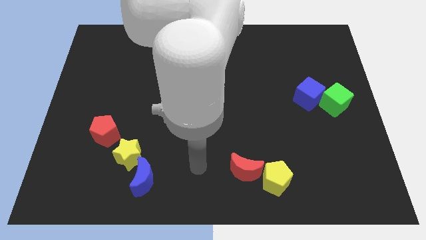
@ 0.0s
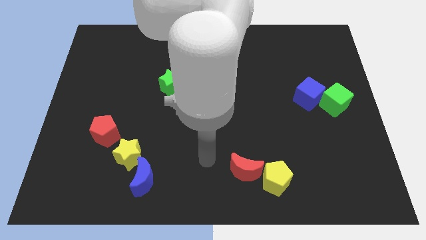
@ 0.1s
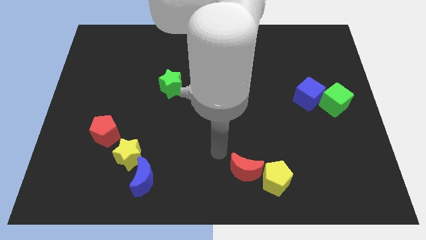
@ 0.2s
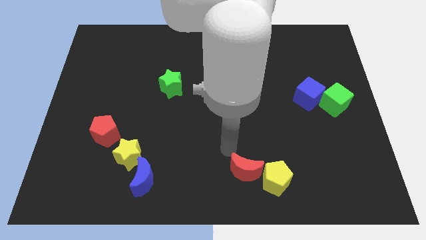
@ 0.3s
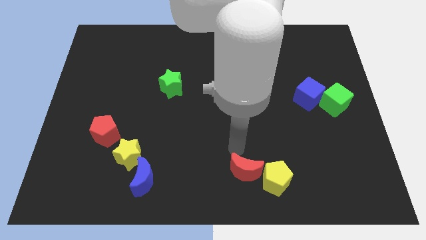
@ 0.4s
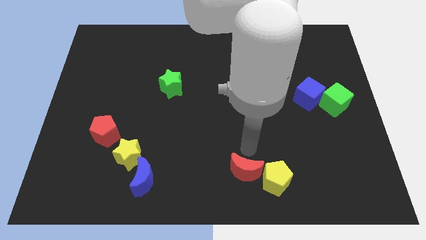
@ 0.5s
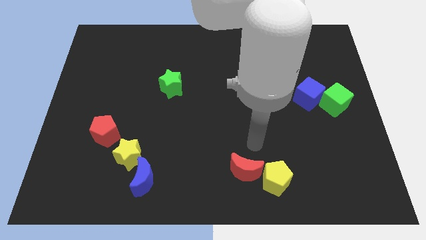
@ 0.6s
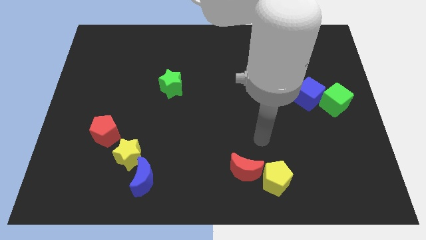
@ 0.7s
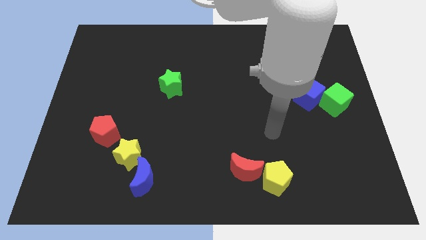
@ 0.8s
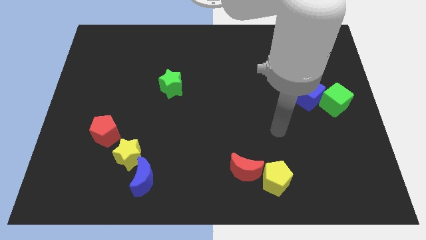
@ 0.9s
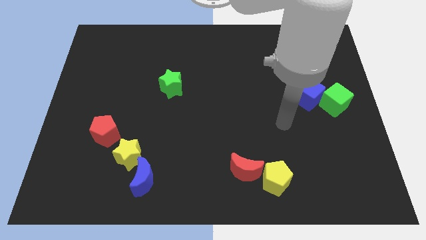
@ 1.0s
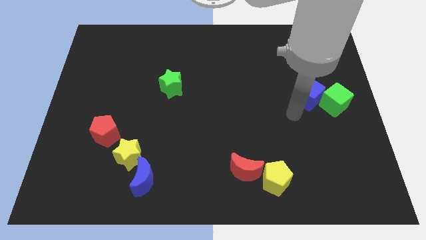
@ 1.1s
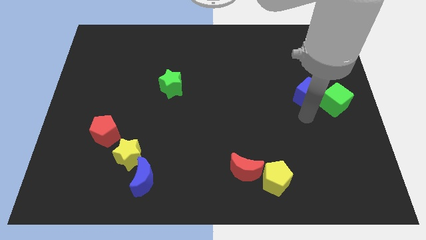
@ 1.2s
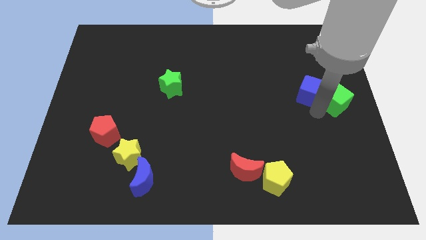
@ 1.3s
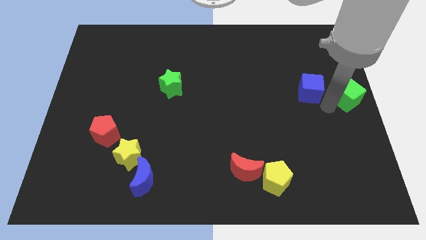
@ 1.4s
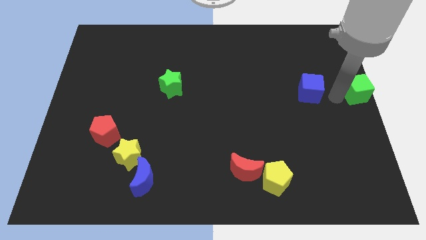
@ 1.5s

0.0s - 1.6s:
pull the blue cube apart from the green cube

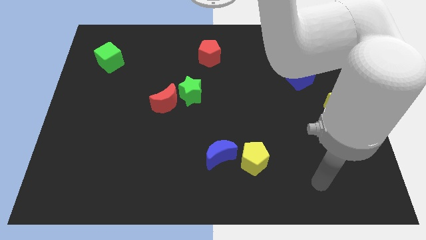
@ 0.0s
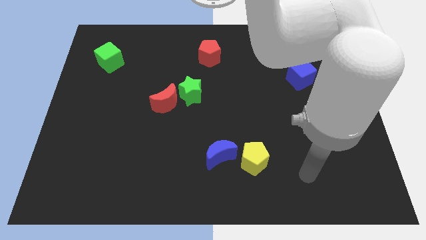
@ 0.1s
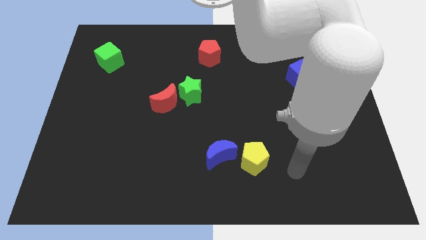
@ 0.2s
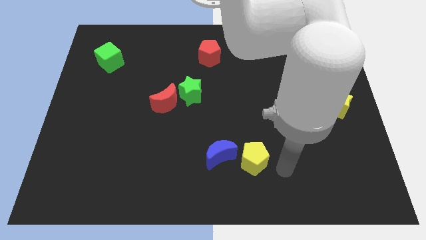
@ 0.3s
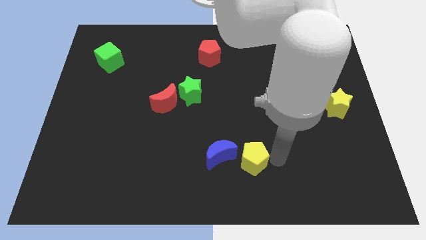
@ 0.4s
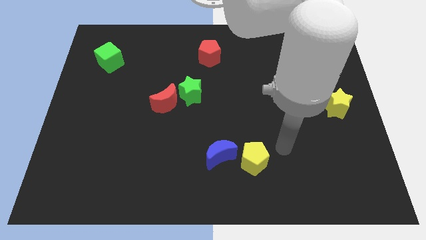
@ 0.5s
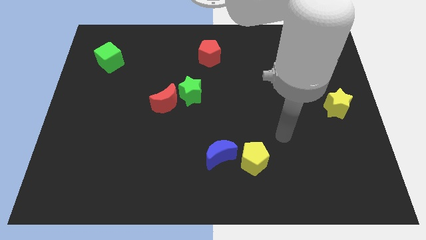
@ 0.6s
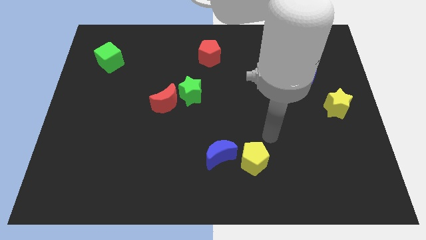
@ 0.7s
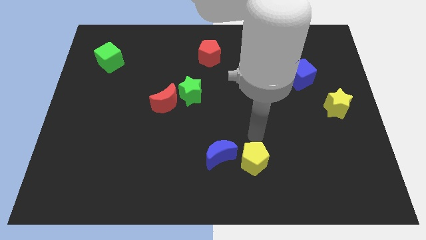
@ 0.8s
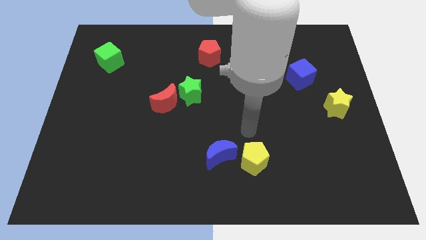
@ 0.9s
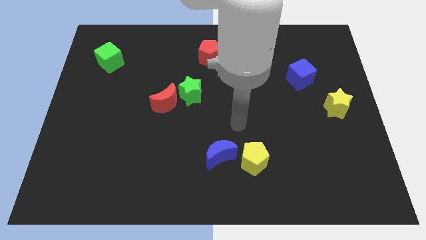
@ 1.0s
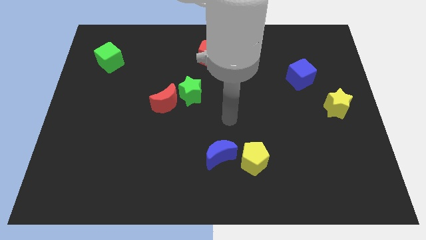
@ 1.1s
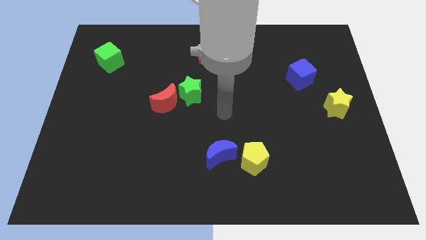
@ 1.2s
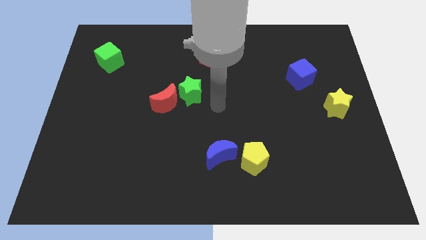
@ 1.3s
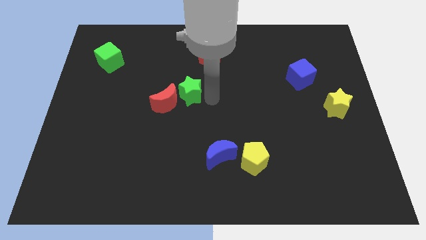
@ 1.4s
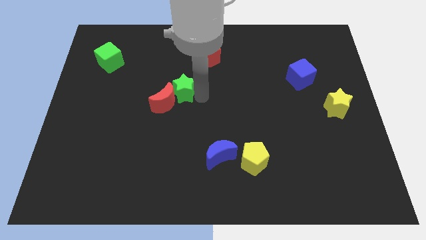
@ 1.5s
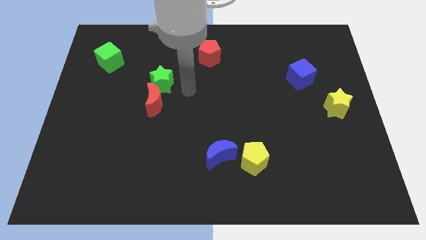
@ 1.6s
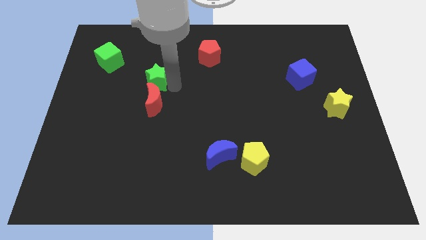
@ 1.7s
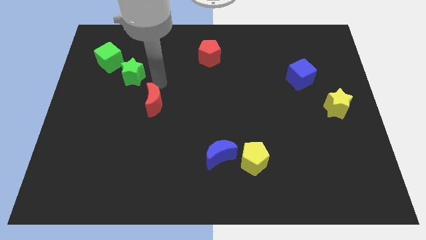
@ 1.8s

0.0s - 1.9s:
separate the red moon from the green star

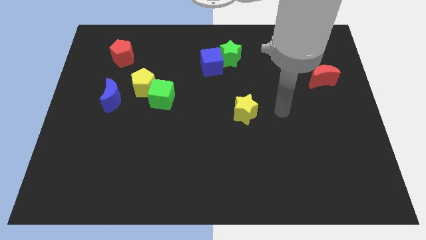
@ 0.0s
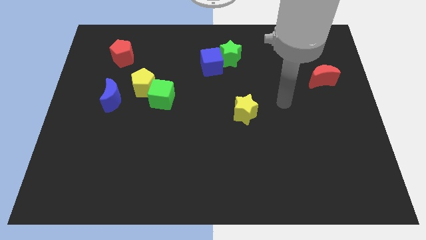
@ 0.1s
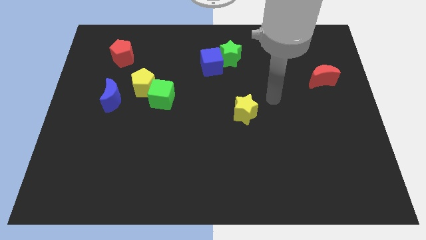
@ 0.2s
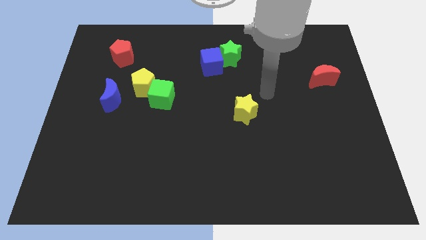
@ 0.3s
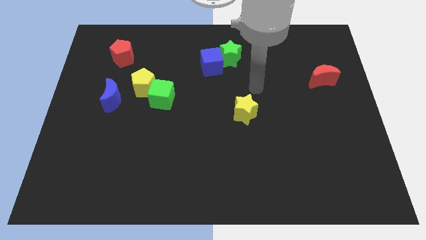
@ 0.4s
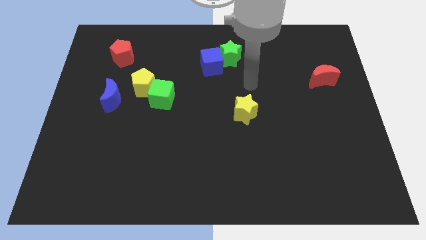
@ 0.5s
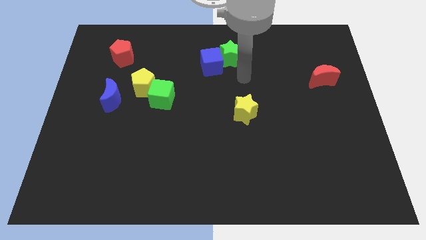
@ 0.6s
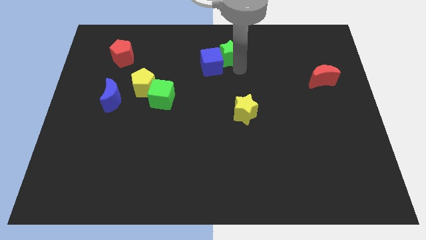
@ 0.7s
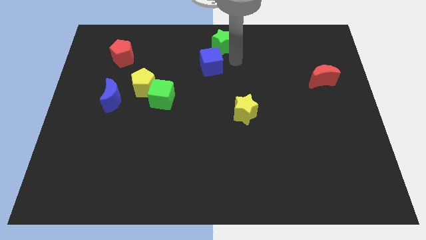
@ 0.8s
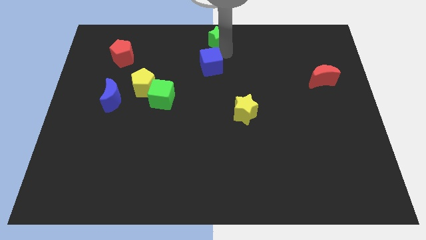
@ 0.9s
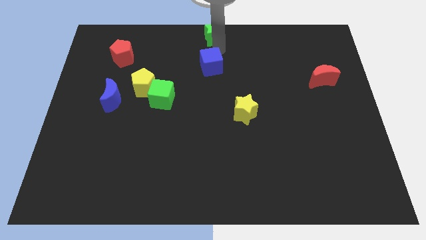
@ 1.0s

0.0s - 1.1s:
separate the blue cube from the green star

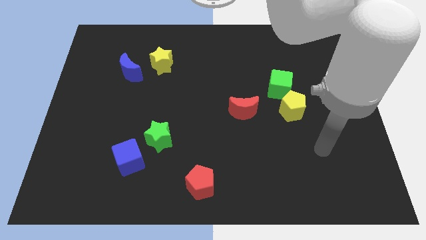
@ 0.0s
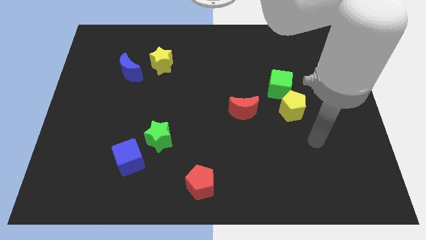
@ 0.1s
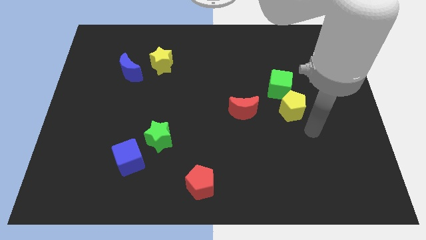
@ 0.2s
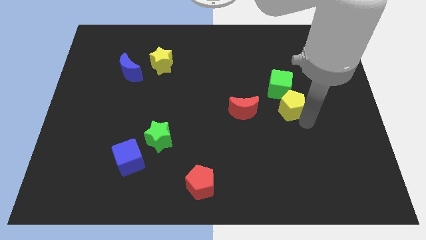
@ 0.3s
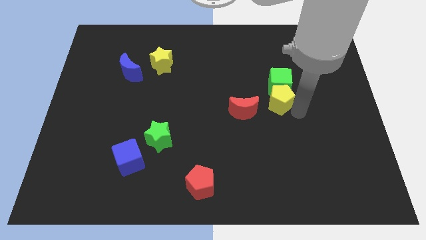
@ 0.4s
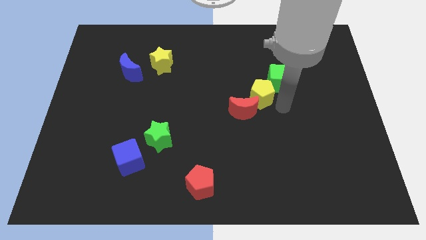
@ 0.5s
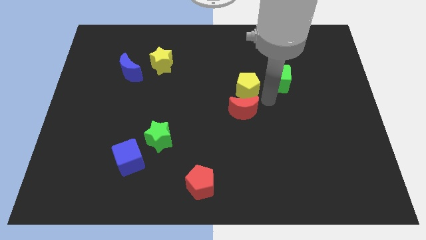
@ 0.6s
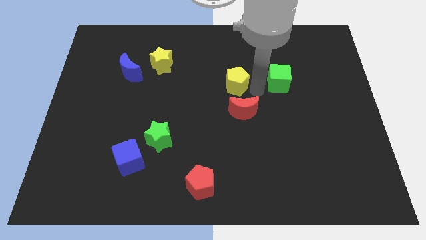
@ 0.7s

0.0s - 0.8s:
move the green cube away from the yellow pentagon

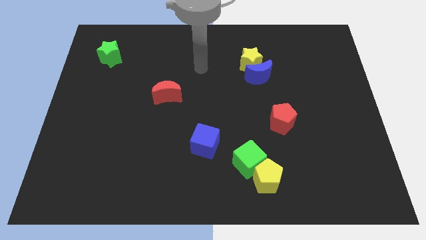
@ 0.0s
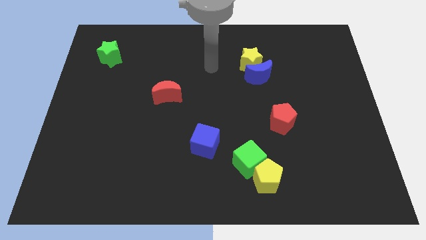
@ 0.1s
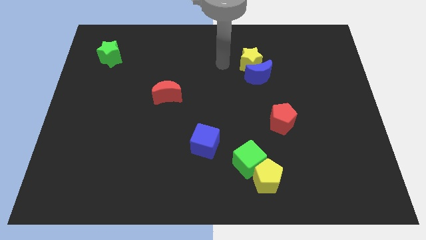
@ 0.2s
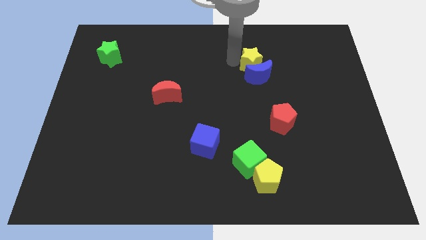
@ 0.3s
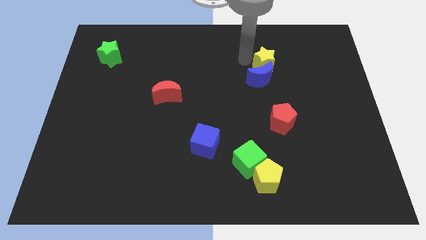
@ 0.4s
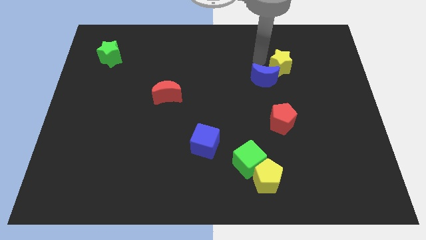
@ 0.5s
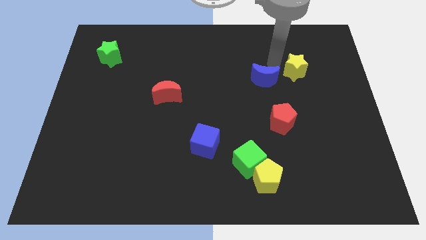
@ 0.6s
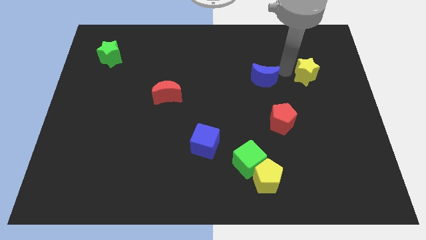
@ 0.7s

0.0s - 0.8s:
pull the blue moon apart from the yellow star

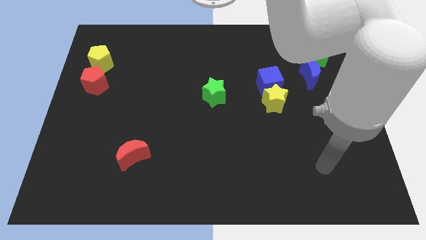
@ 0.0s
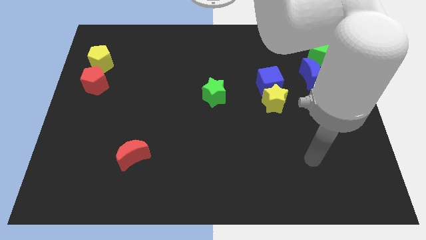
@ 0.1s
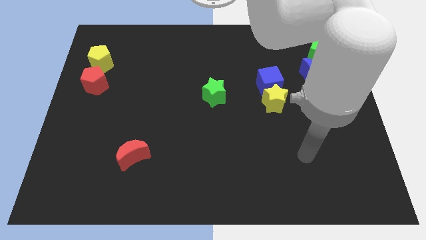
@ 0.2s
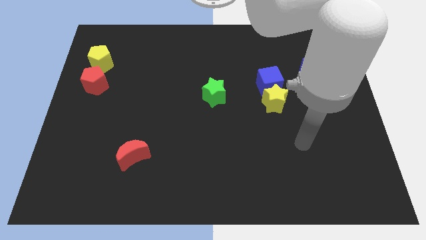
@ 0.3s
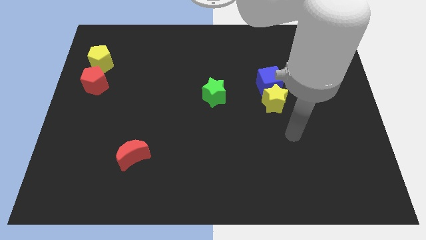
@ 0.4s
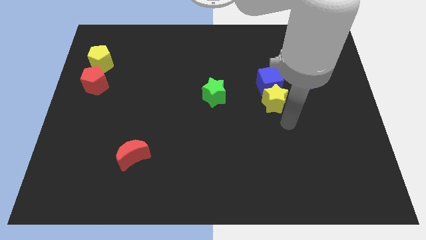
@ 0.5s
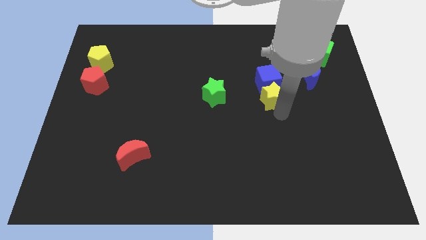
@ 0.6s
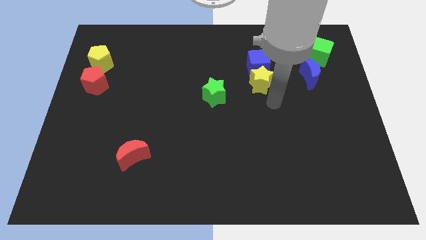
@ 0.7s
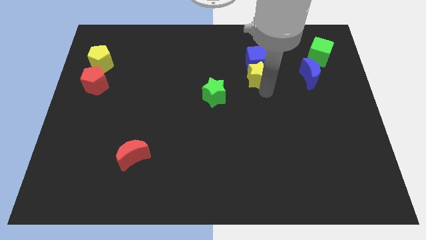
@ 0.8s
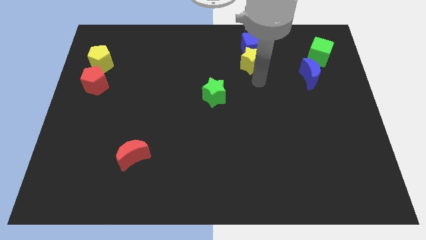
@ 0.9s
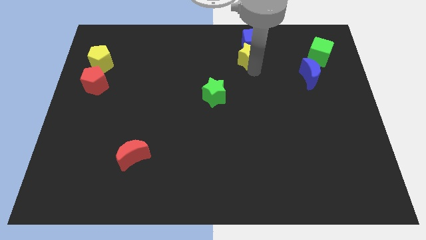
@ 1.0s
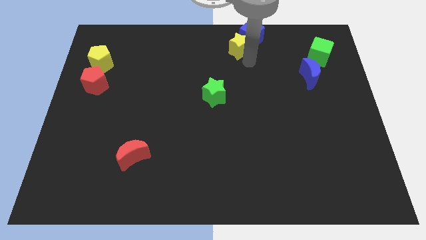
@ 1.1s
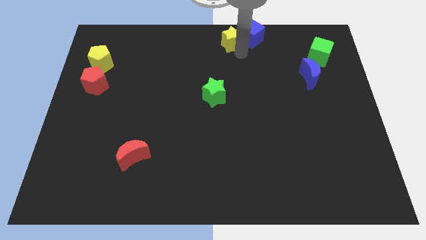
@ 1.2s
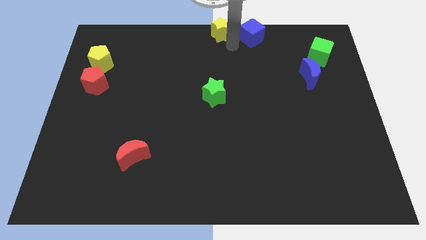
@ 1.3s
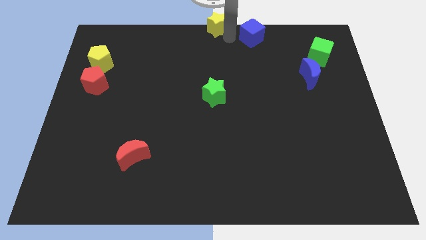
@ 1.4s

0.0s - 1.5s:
move the blue cube away from the yellow star

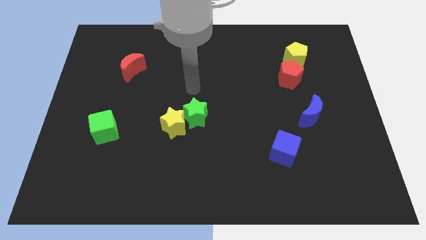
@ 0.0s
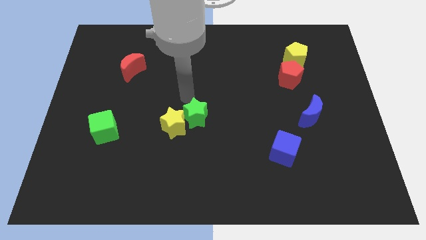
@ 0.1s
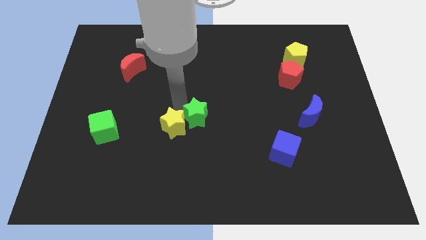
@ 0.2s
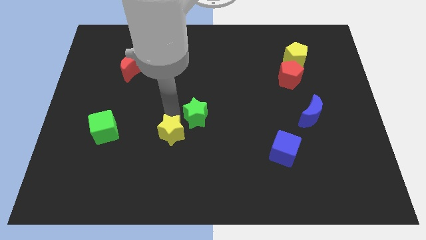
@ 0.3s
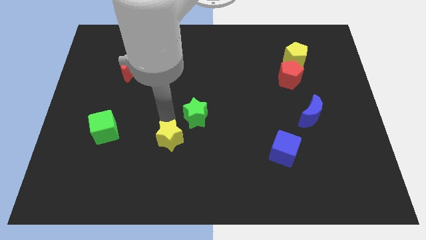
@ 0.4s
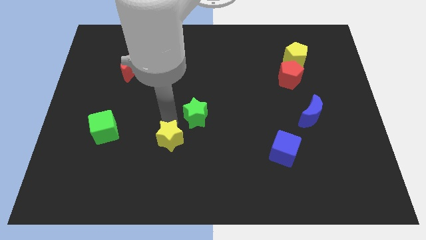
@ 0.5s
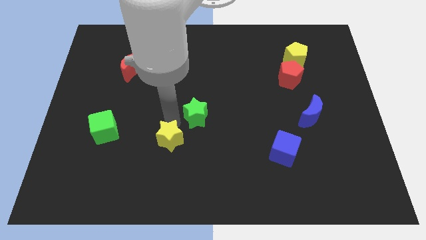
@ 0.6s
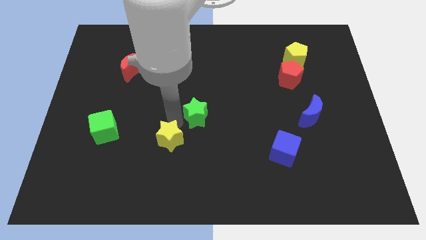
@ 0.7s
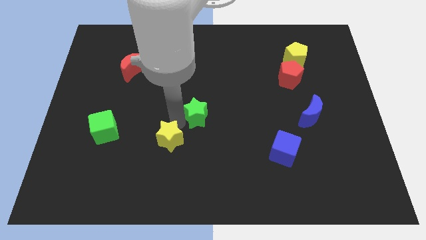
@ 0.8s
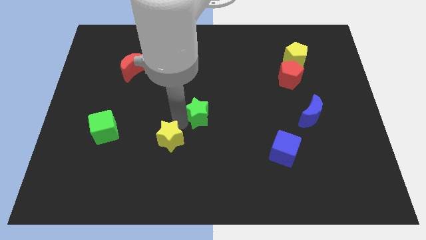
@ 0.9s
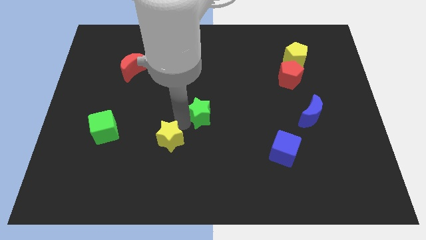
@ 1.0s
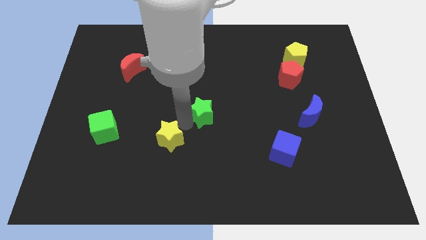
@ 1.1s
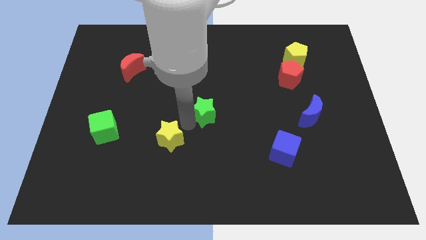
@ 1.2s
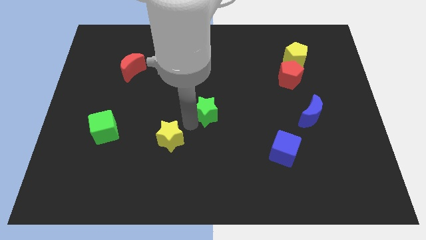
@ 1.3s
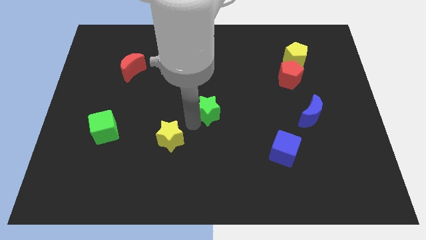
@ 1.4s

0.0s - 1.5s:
pull the green star apart from the yellow star
